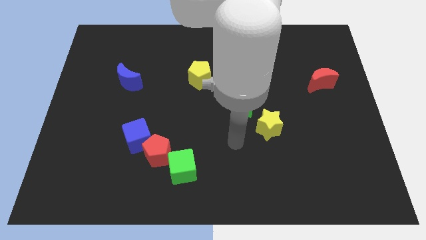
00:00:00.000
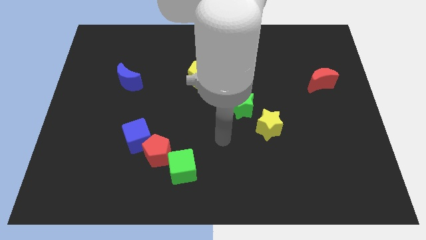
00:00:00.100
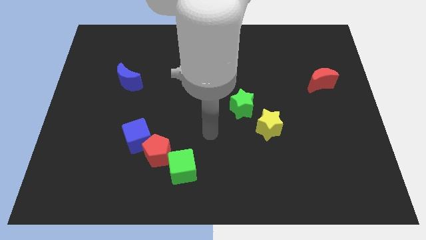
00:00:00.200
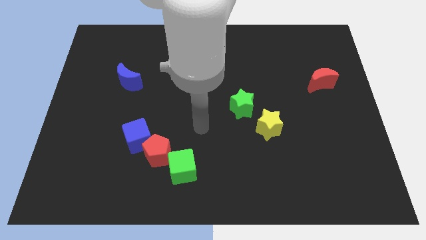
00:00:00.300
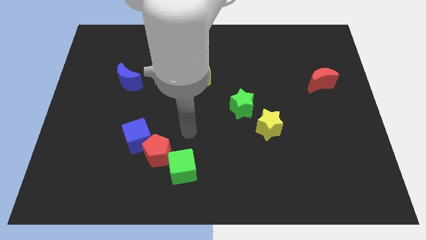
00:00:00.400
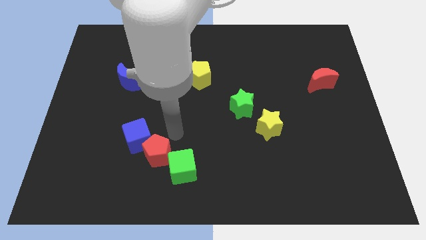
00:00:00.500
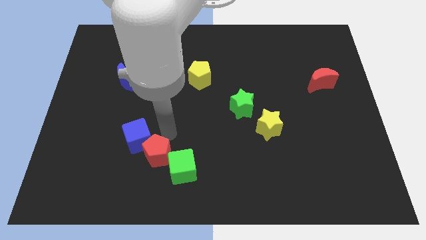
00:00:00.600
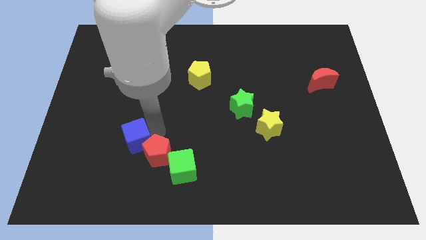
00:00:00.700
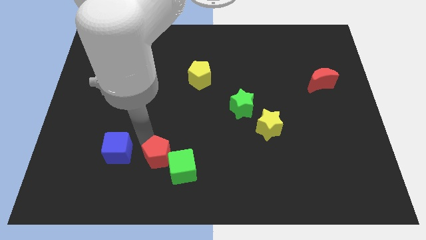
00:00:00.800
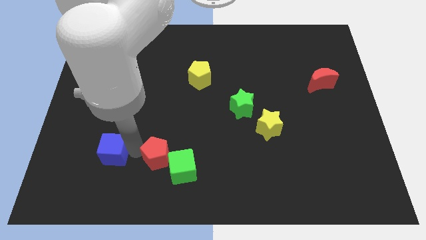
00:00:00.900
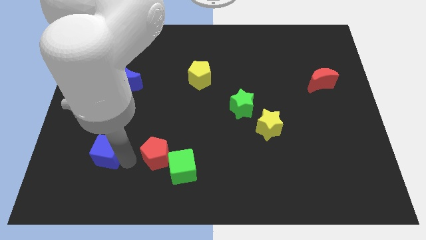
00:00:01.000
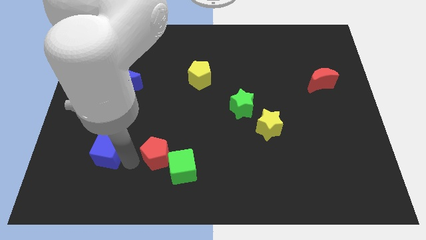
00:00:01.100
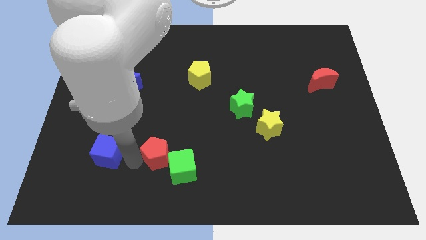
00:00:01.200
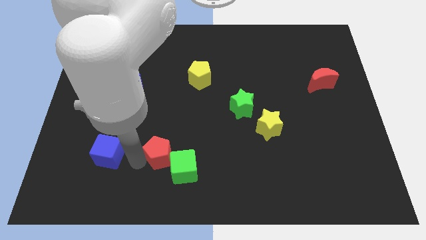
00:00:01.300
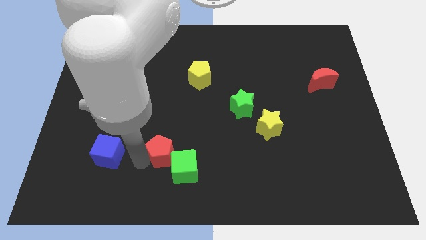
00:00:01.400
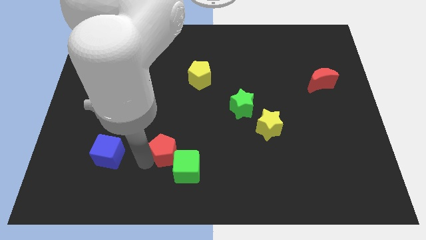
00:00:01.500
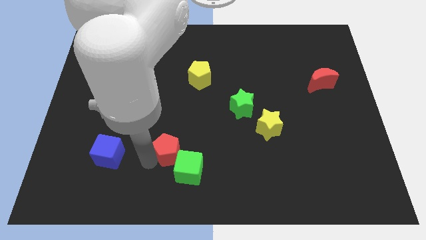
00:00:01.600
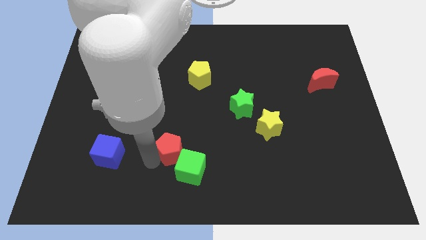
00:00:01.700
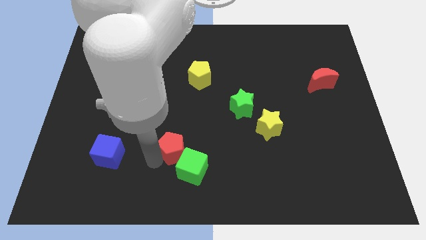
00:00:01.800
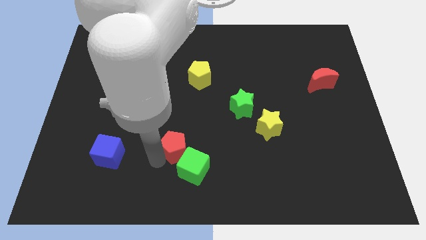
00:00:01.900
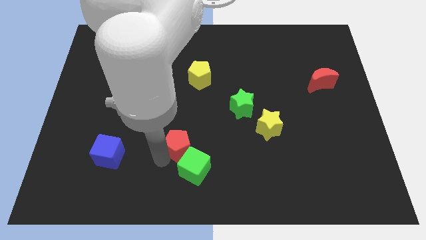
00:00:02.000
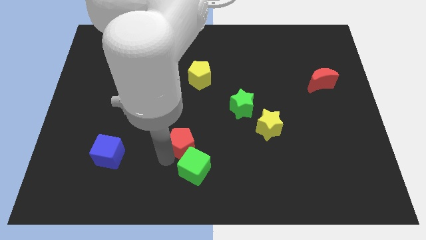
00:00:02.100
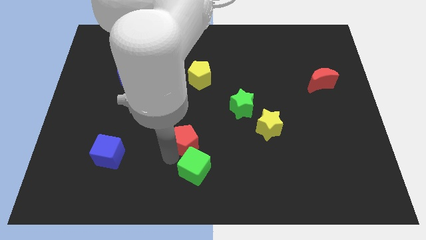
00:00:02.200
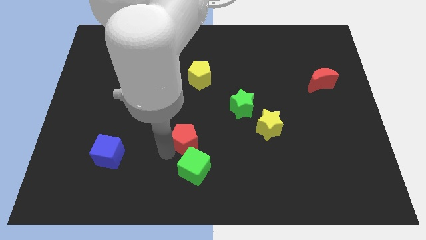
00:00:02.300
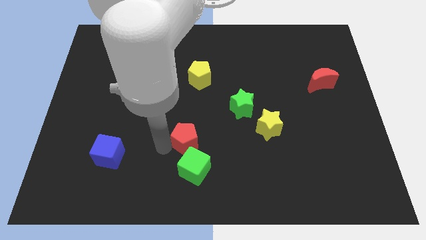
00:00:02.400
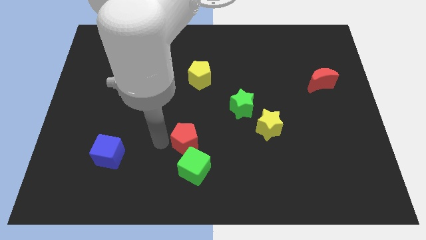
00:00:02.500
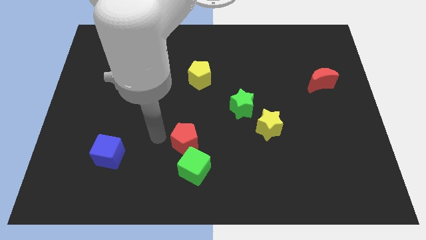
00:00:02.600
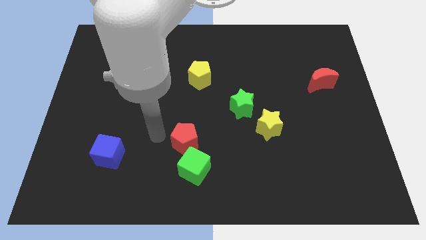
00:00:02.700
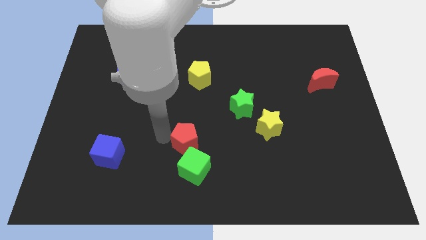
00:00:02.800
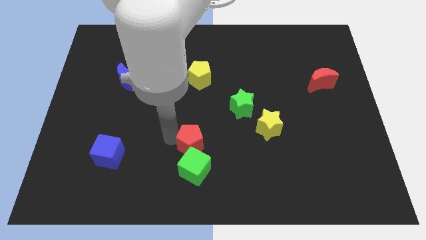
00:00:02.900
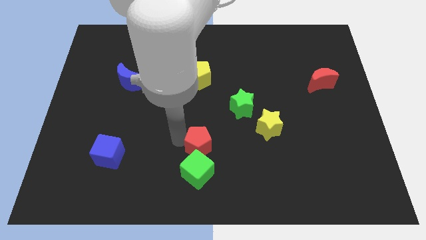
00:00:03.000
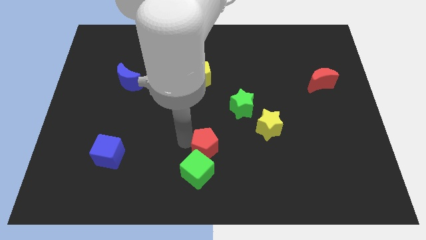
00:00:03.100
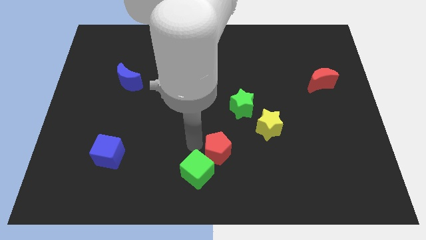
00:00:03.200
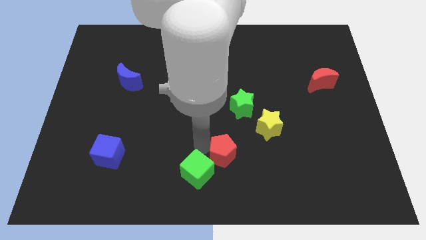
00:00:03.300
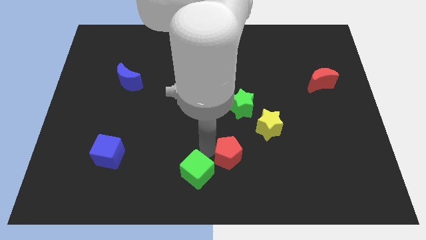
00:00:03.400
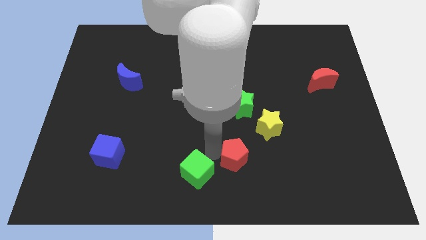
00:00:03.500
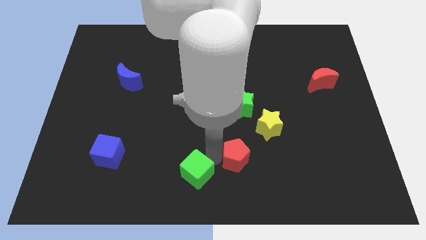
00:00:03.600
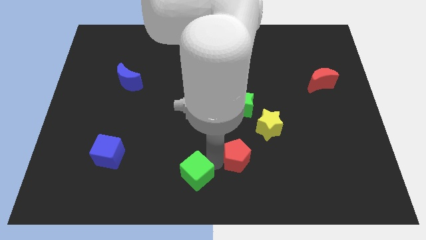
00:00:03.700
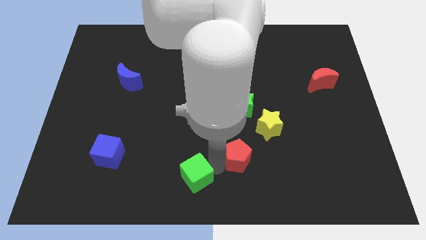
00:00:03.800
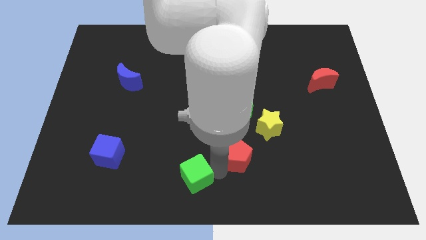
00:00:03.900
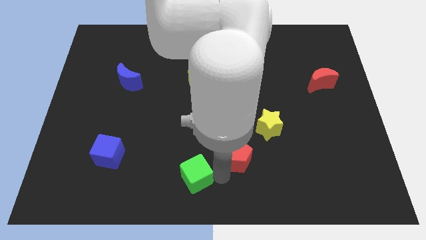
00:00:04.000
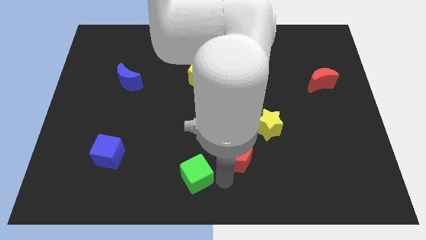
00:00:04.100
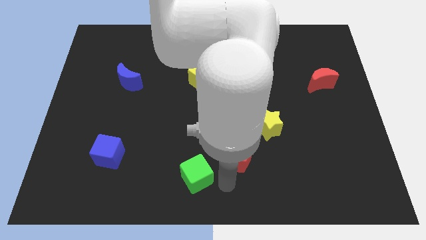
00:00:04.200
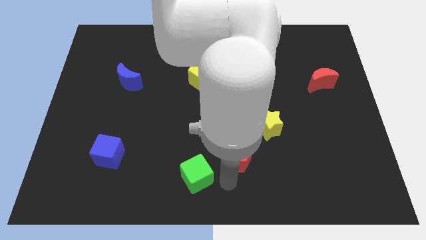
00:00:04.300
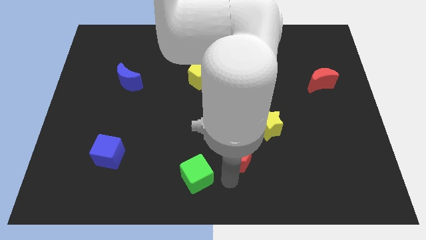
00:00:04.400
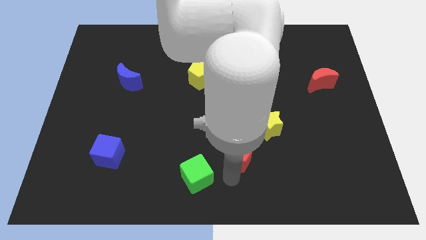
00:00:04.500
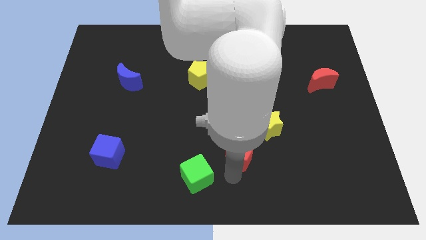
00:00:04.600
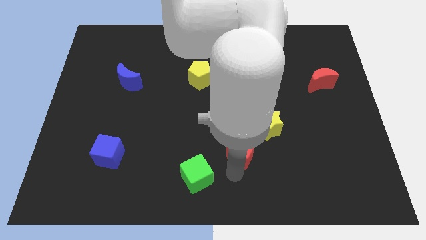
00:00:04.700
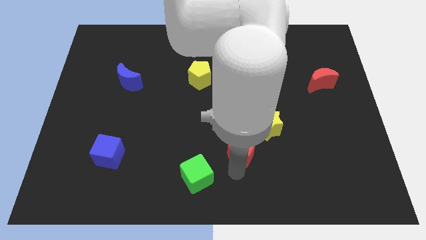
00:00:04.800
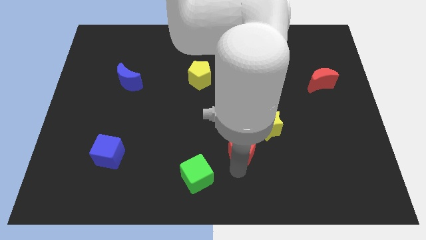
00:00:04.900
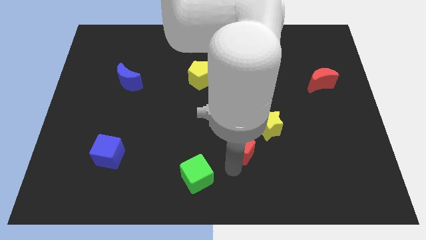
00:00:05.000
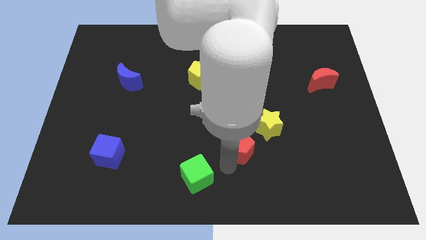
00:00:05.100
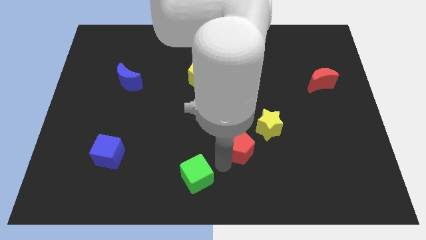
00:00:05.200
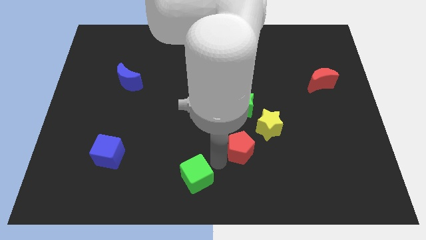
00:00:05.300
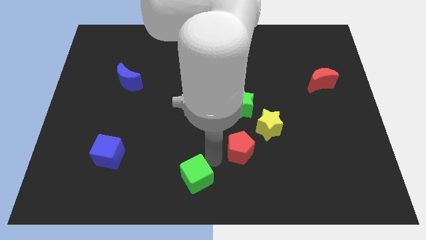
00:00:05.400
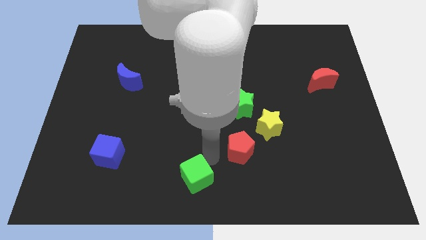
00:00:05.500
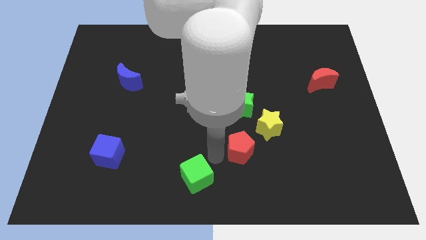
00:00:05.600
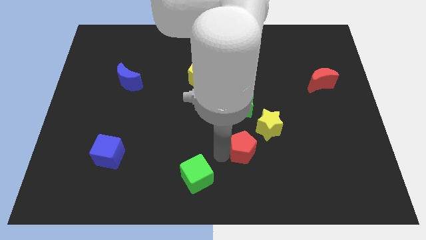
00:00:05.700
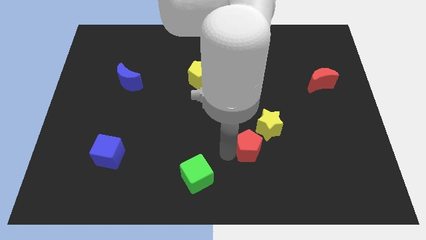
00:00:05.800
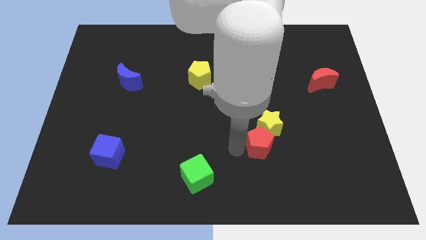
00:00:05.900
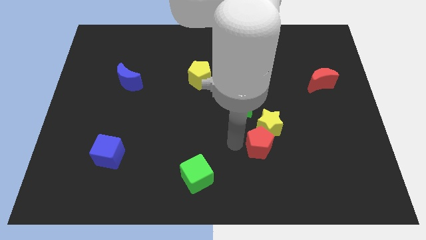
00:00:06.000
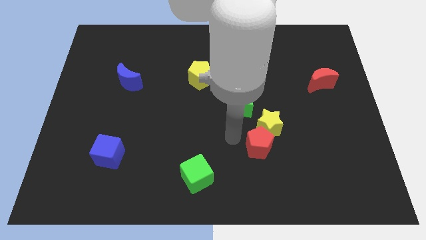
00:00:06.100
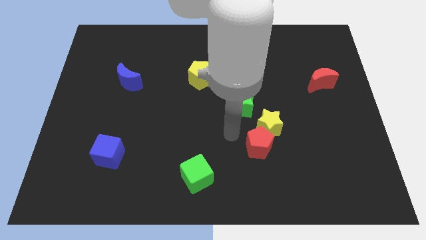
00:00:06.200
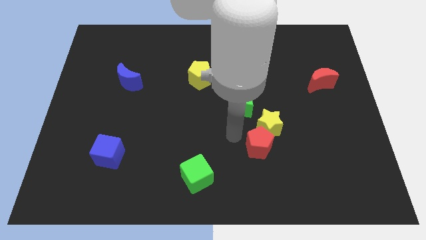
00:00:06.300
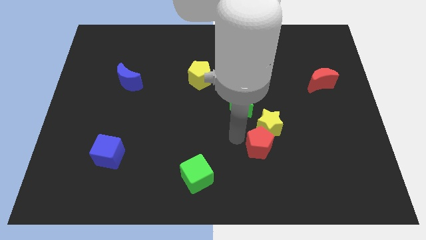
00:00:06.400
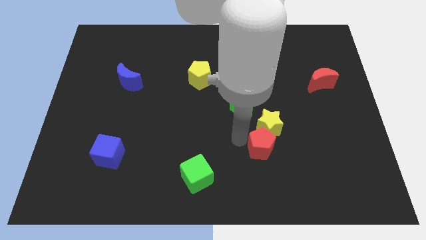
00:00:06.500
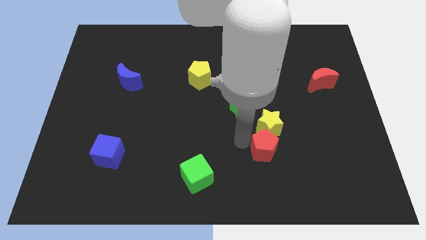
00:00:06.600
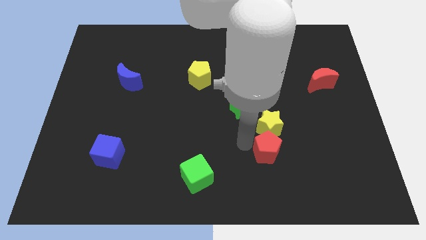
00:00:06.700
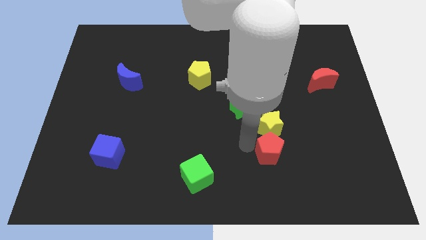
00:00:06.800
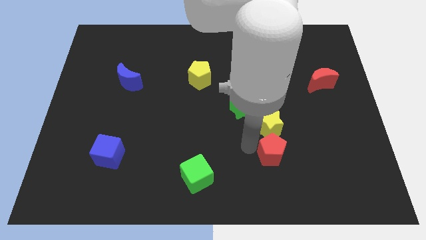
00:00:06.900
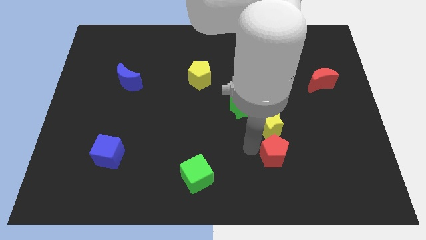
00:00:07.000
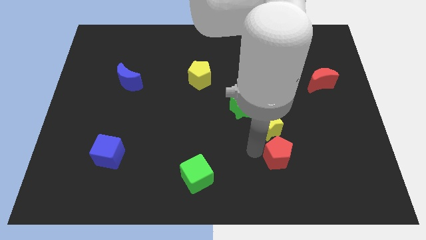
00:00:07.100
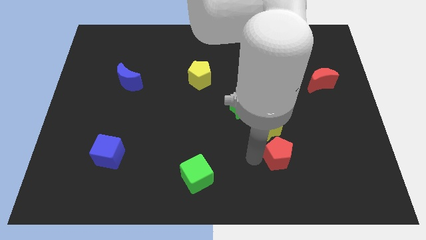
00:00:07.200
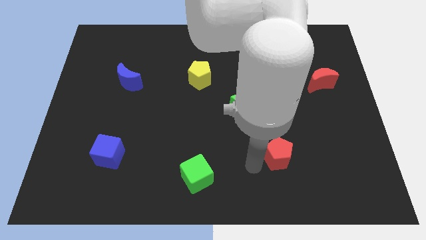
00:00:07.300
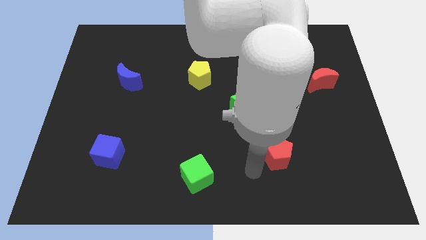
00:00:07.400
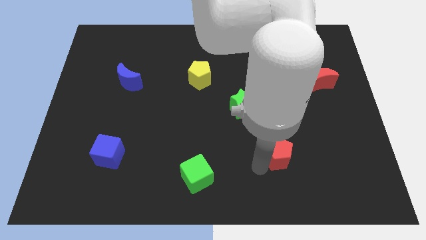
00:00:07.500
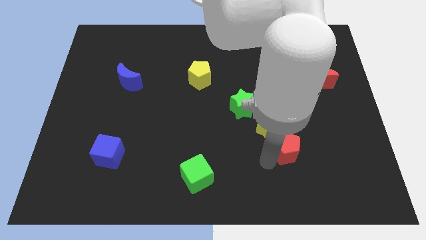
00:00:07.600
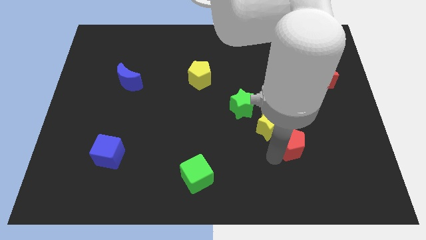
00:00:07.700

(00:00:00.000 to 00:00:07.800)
push the red pentagon to the right of the yellow star
